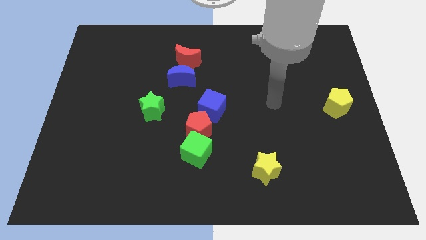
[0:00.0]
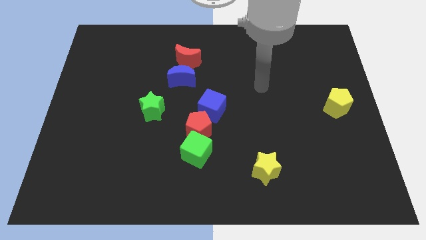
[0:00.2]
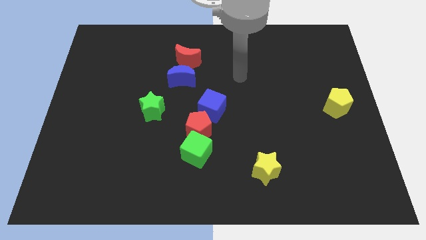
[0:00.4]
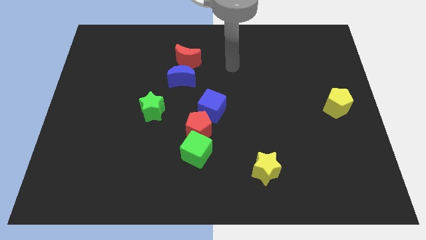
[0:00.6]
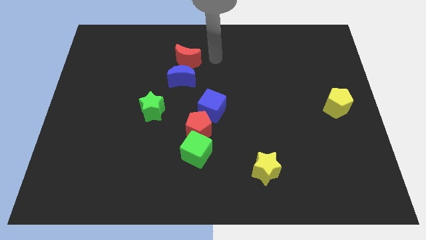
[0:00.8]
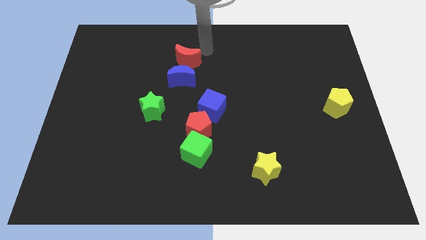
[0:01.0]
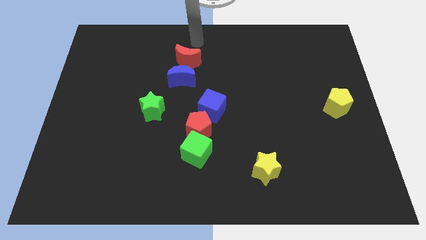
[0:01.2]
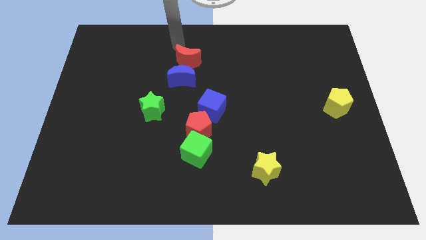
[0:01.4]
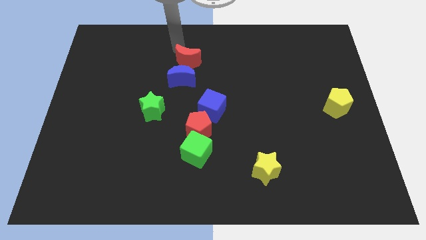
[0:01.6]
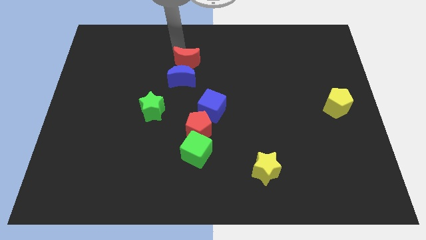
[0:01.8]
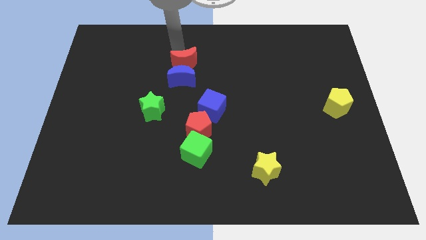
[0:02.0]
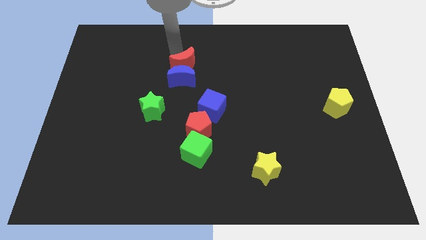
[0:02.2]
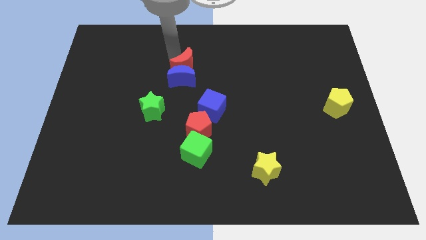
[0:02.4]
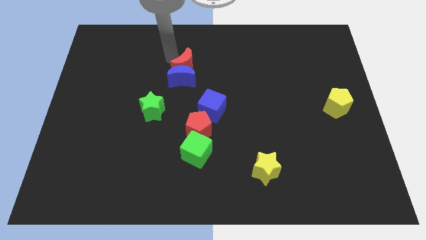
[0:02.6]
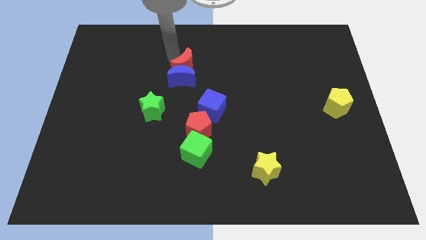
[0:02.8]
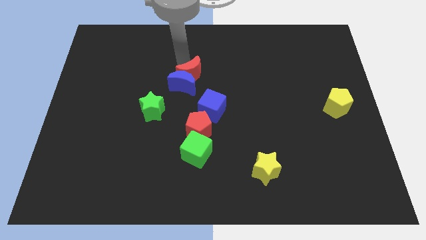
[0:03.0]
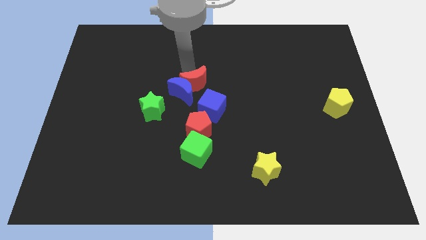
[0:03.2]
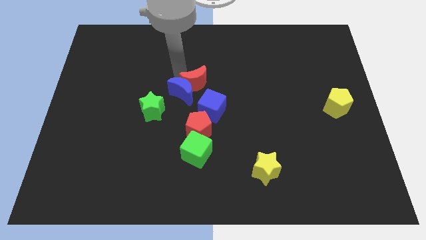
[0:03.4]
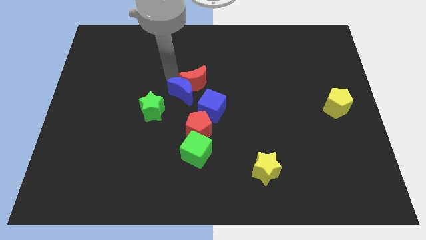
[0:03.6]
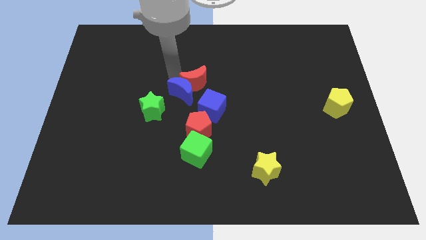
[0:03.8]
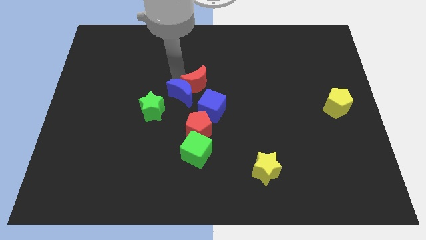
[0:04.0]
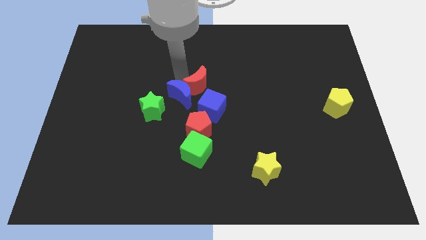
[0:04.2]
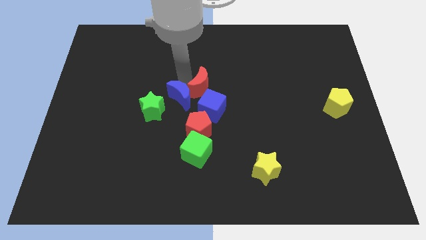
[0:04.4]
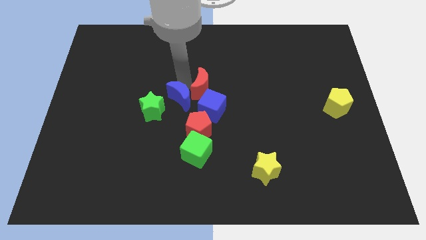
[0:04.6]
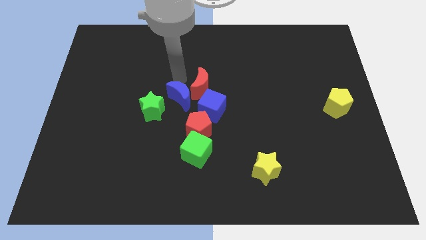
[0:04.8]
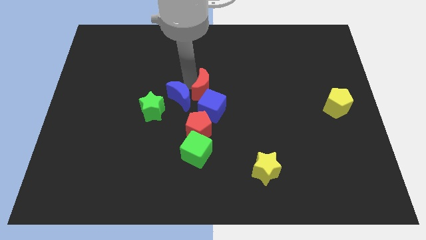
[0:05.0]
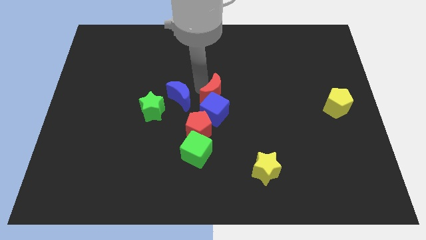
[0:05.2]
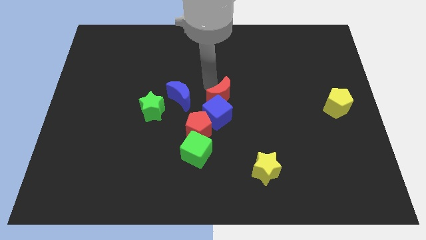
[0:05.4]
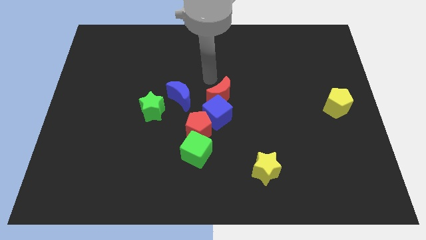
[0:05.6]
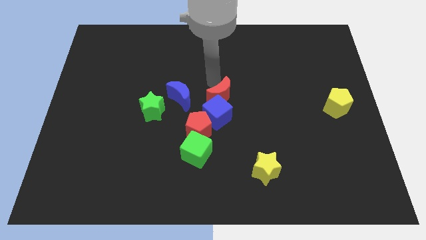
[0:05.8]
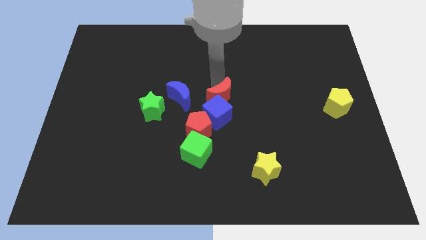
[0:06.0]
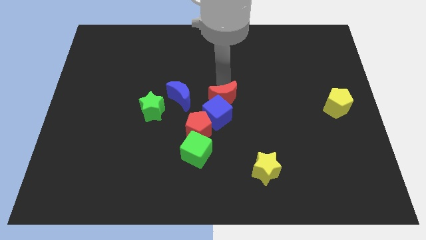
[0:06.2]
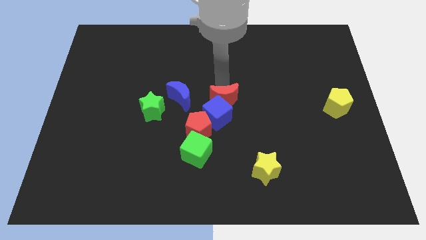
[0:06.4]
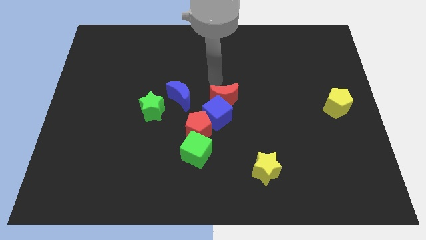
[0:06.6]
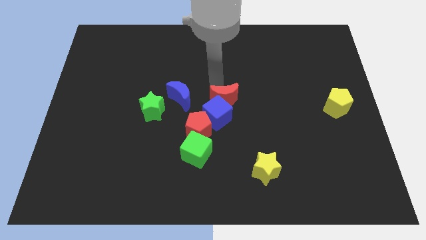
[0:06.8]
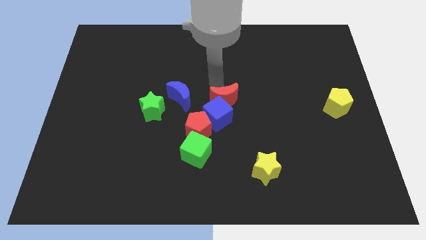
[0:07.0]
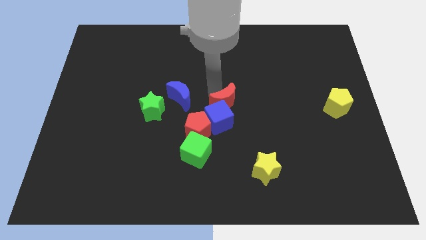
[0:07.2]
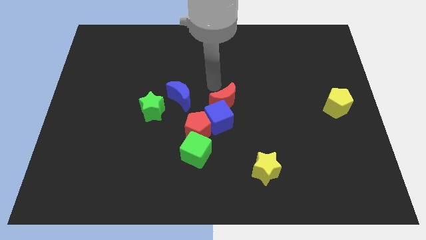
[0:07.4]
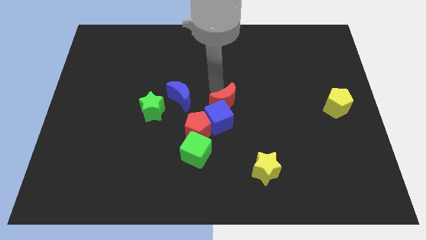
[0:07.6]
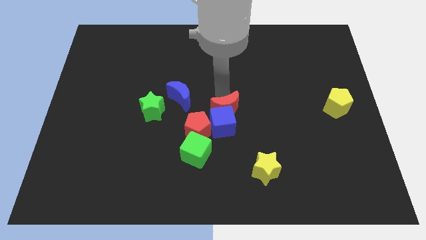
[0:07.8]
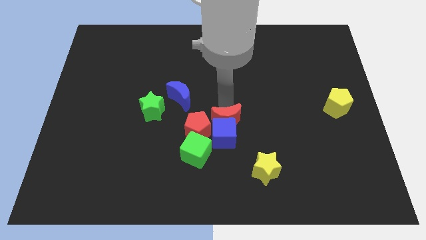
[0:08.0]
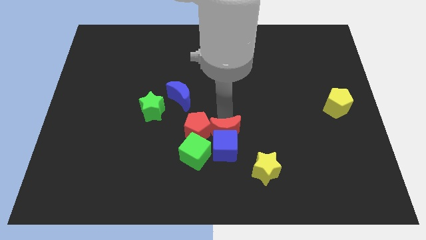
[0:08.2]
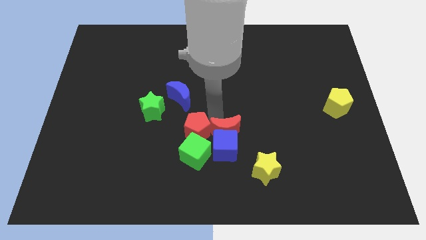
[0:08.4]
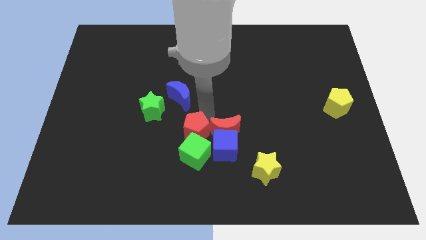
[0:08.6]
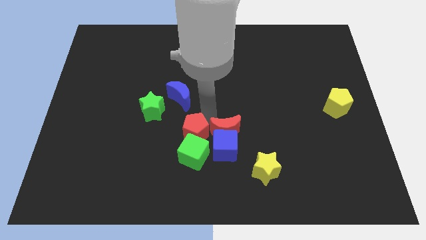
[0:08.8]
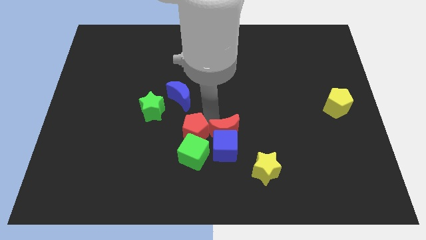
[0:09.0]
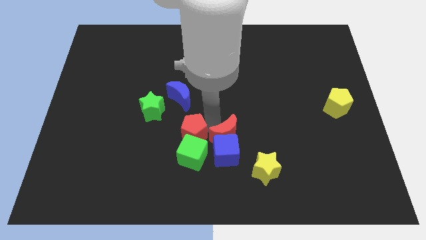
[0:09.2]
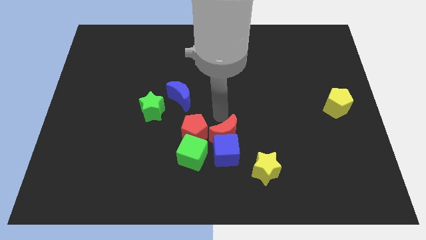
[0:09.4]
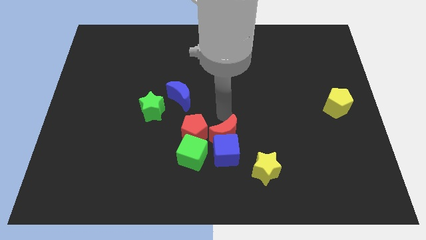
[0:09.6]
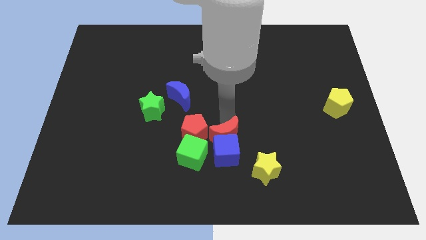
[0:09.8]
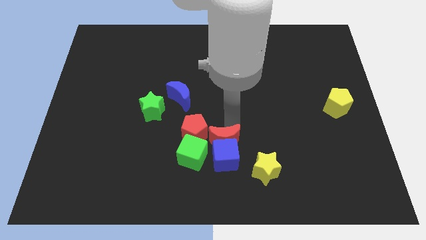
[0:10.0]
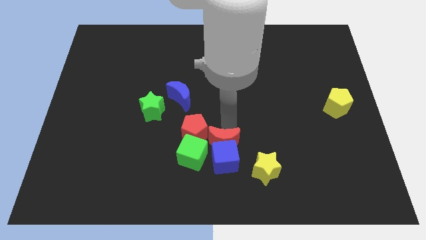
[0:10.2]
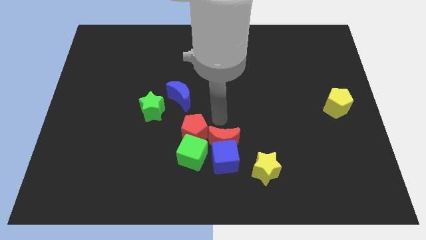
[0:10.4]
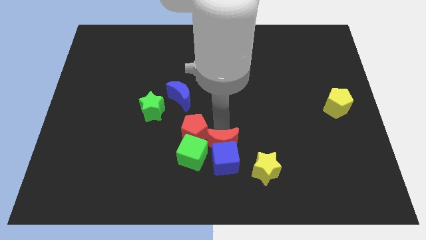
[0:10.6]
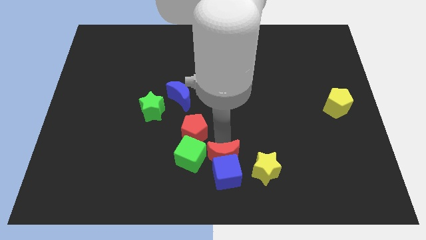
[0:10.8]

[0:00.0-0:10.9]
push the red moon to the bottom

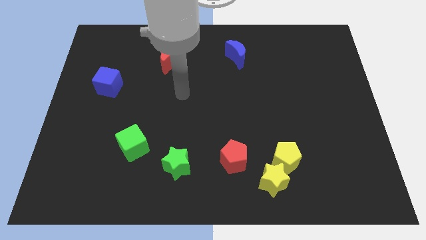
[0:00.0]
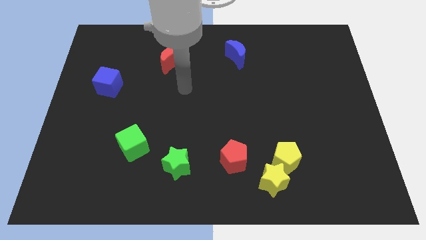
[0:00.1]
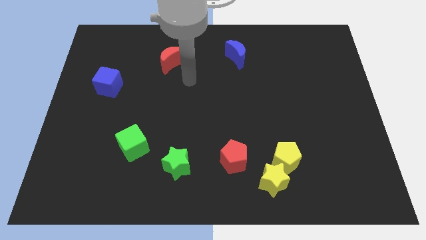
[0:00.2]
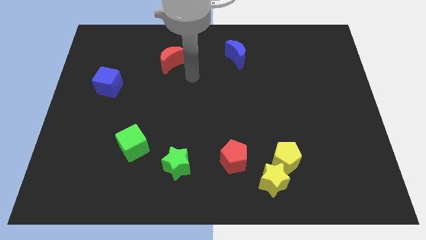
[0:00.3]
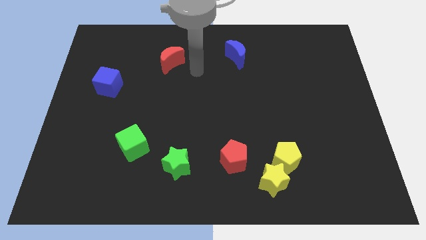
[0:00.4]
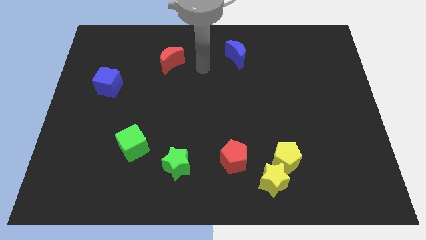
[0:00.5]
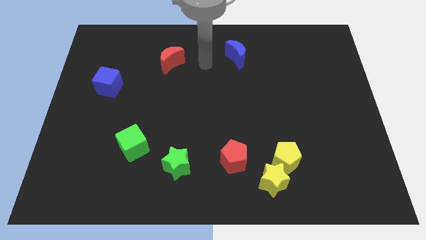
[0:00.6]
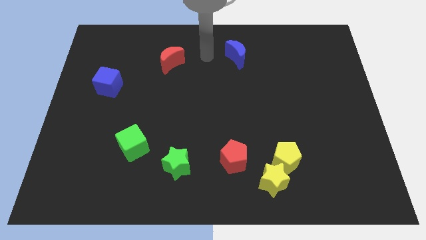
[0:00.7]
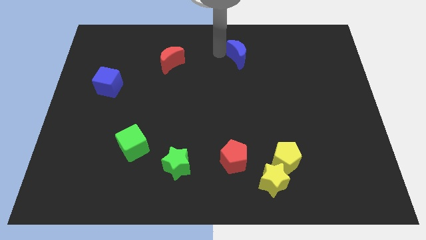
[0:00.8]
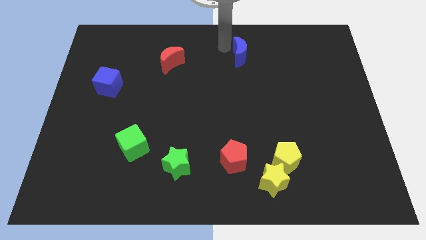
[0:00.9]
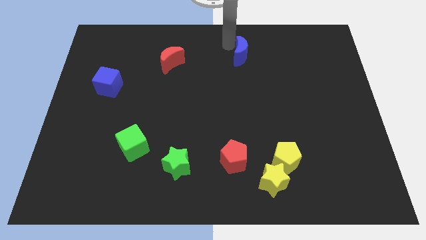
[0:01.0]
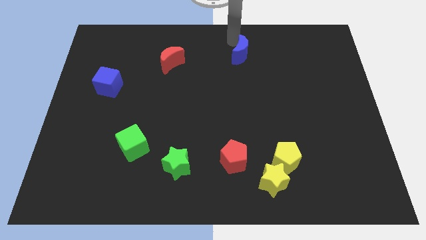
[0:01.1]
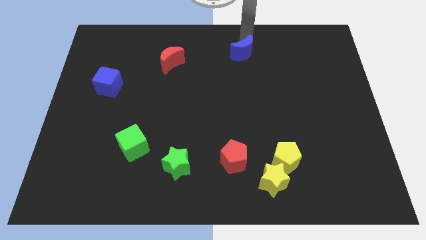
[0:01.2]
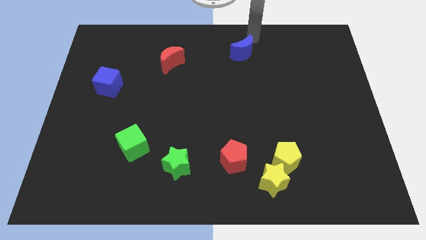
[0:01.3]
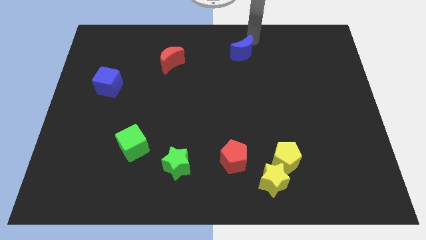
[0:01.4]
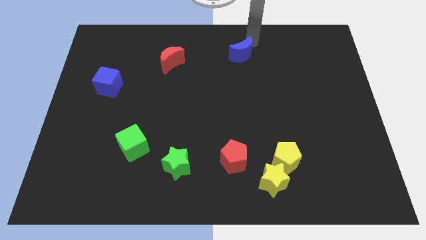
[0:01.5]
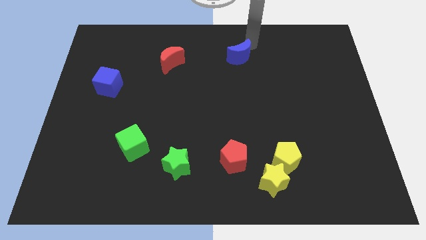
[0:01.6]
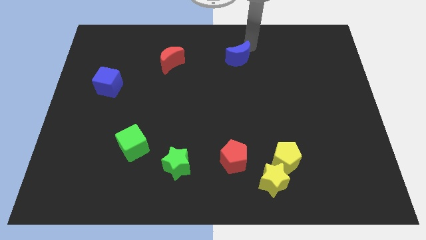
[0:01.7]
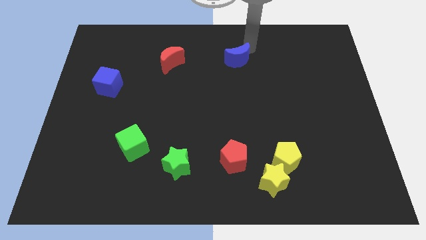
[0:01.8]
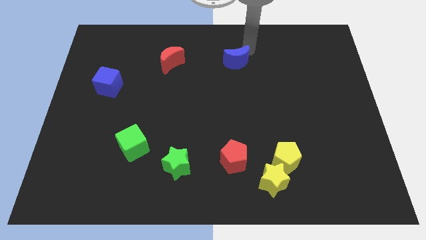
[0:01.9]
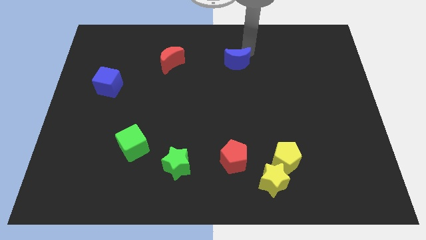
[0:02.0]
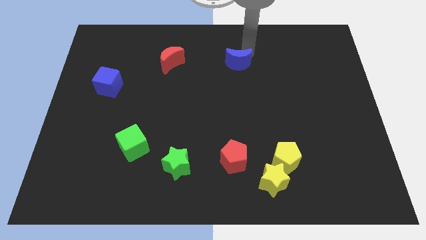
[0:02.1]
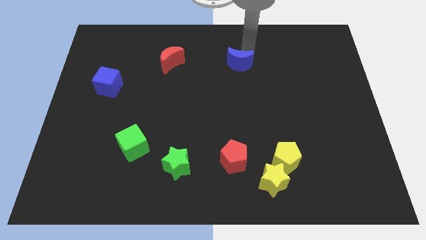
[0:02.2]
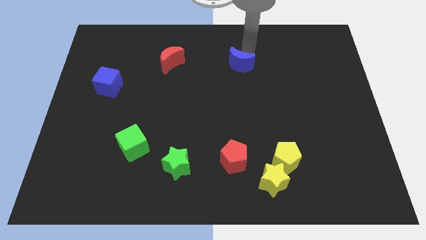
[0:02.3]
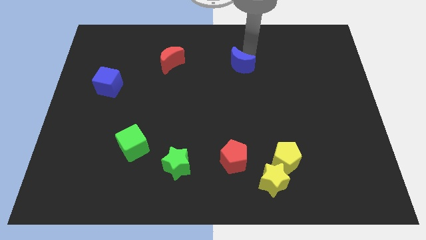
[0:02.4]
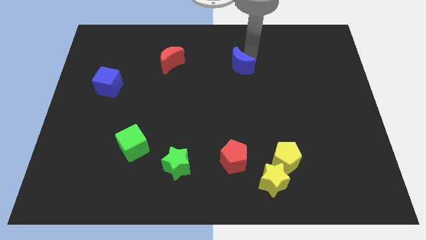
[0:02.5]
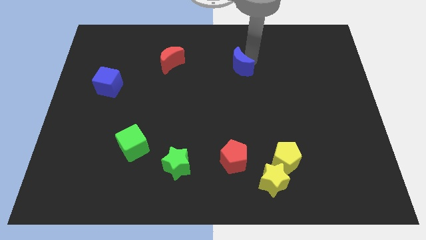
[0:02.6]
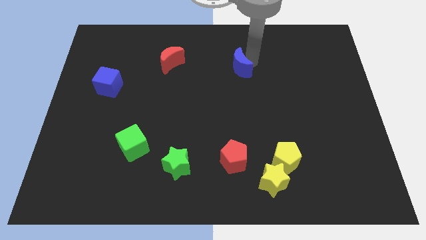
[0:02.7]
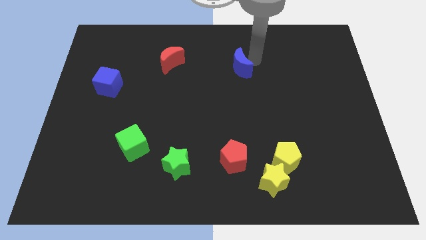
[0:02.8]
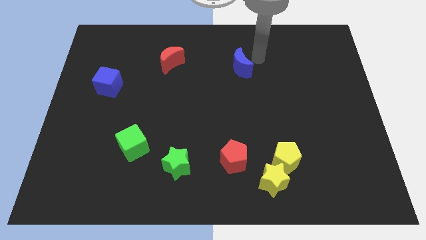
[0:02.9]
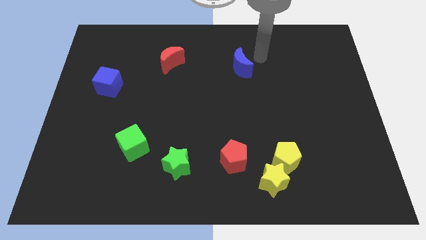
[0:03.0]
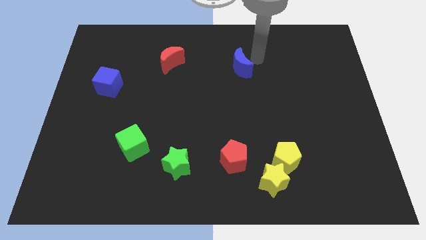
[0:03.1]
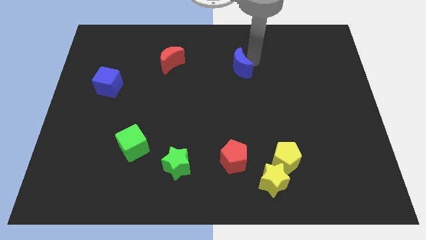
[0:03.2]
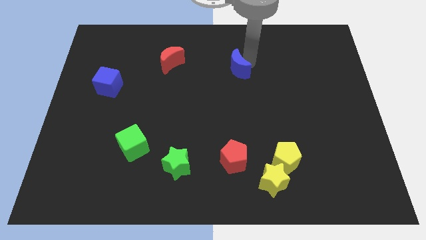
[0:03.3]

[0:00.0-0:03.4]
slide the blue moon to the center of the board
